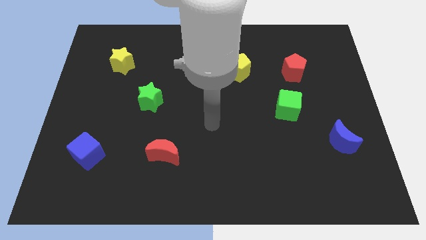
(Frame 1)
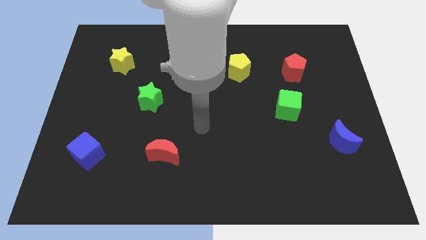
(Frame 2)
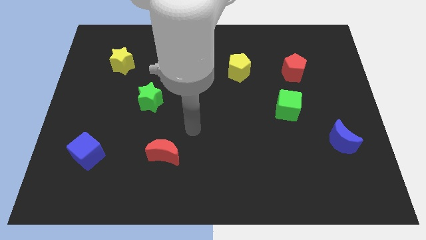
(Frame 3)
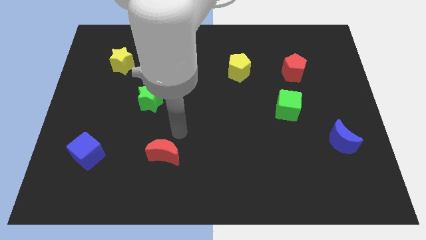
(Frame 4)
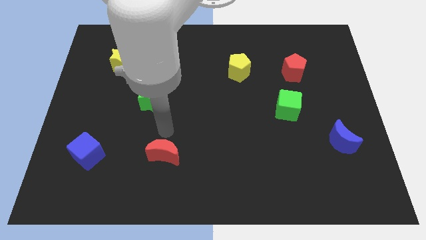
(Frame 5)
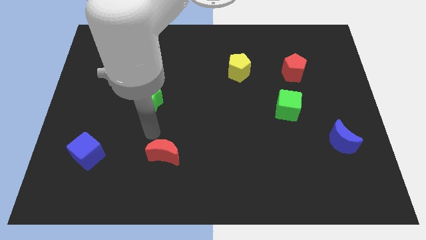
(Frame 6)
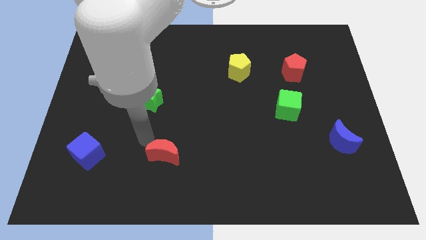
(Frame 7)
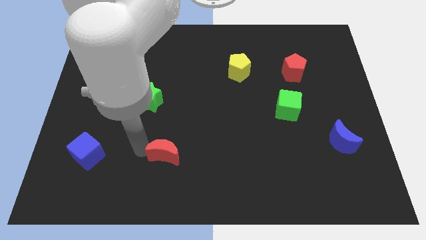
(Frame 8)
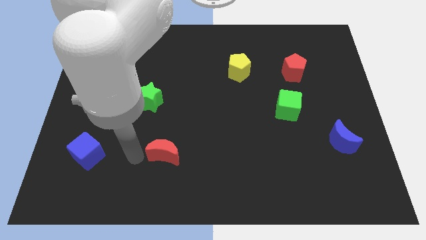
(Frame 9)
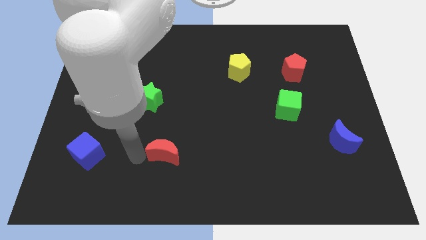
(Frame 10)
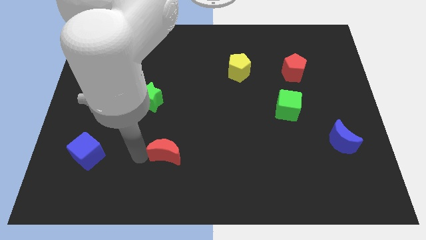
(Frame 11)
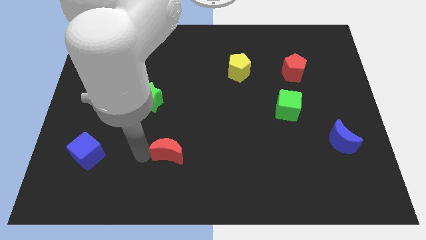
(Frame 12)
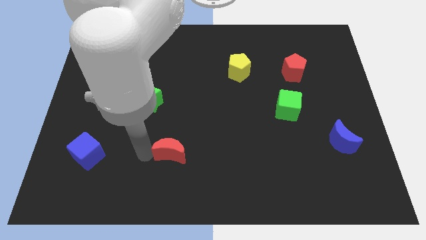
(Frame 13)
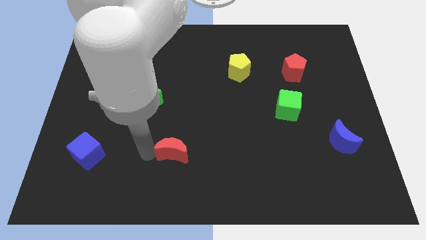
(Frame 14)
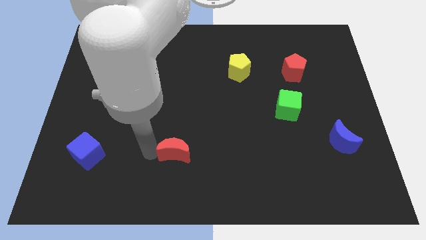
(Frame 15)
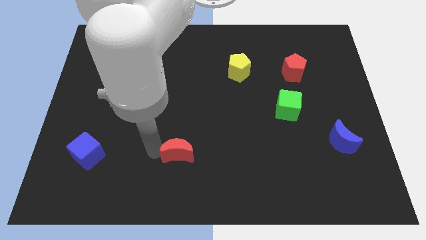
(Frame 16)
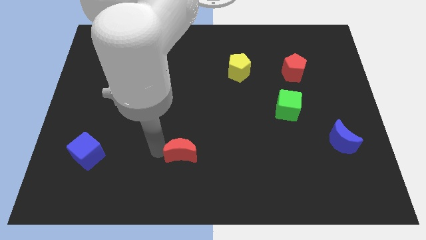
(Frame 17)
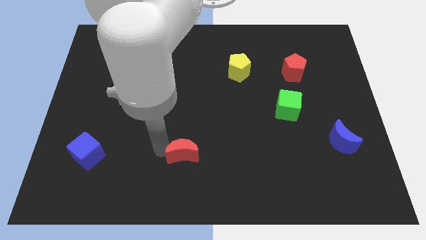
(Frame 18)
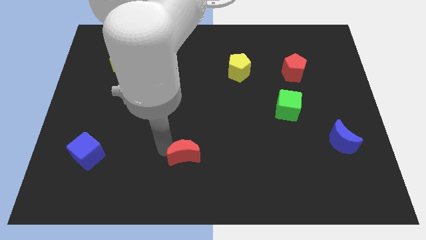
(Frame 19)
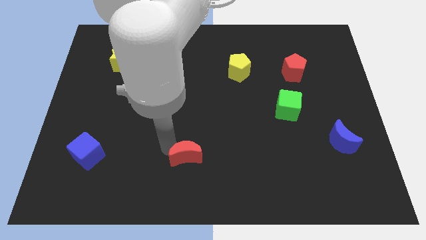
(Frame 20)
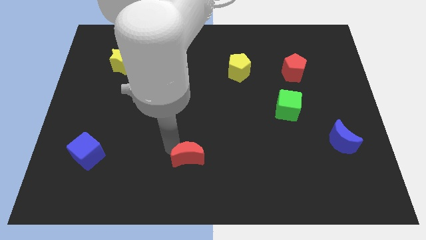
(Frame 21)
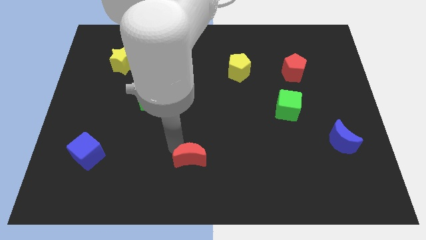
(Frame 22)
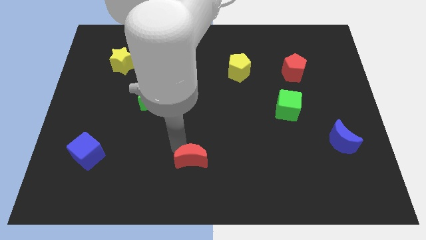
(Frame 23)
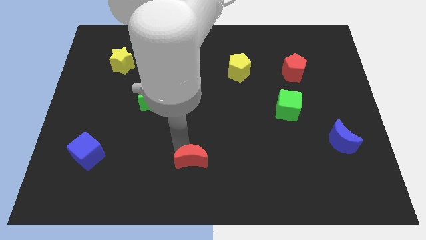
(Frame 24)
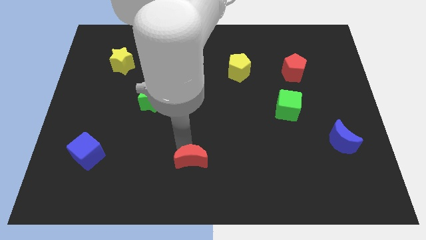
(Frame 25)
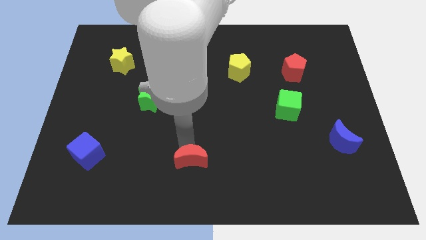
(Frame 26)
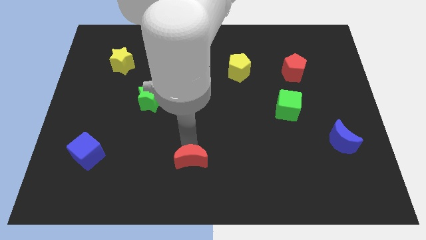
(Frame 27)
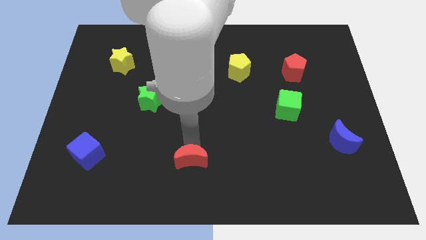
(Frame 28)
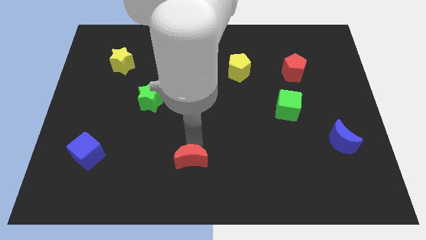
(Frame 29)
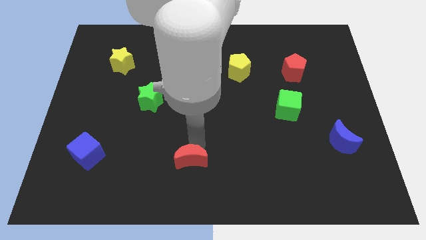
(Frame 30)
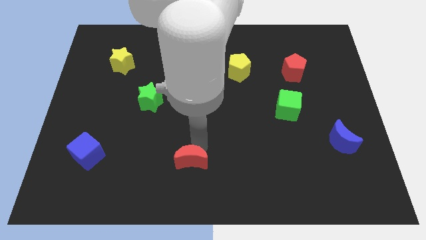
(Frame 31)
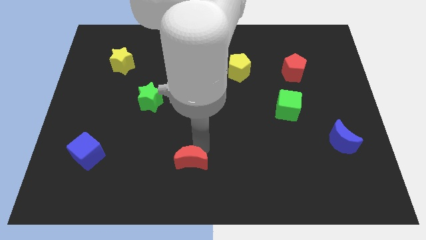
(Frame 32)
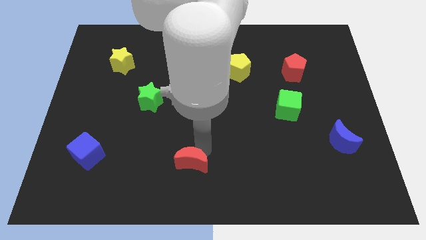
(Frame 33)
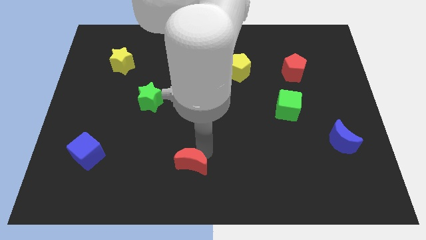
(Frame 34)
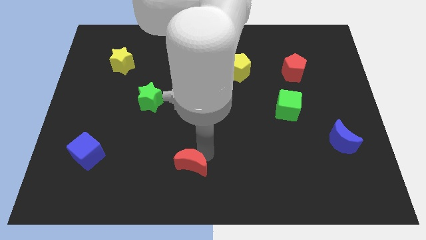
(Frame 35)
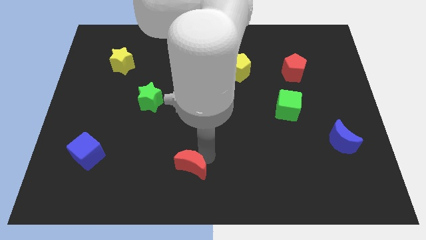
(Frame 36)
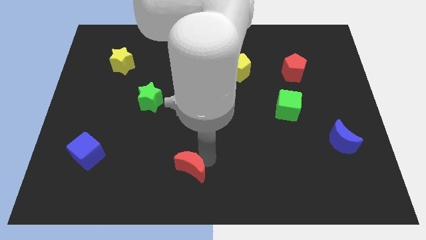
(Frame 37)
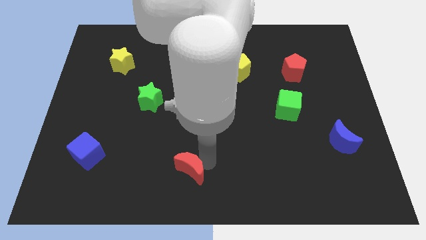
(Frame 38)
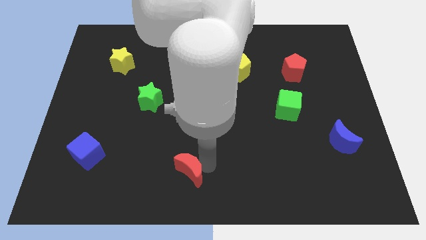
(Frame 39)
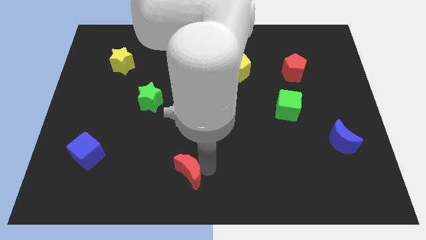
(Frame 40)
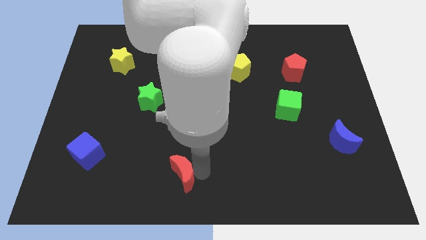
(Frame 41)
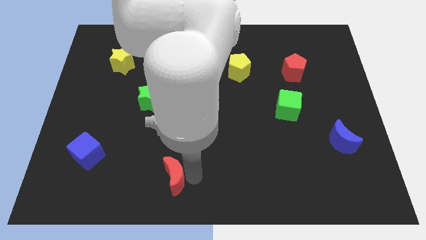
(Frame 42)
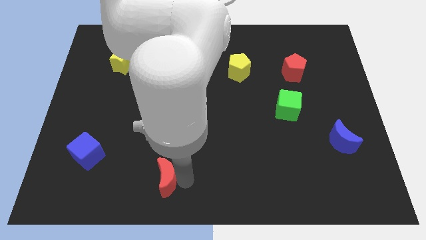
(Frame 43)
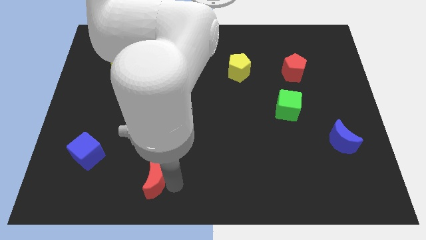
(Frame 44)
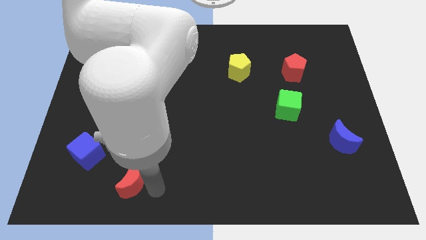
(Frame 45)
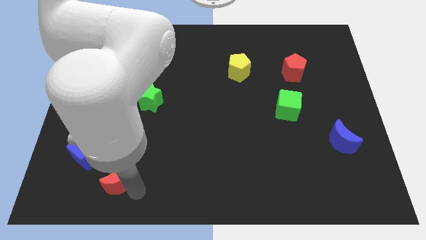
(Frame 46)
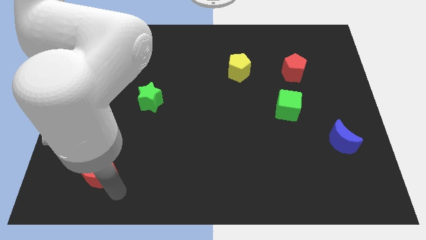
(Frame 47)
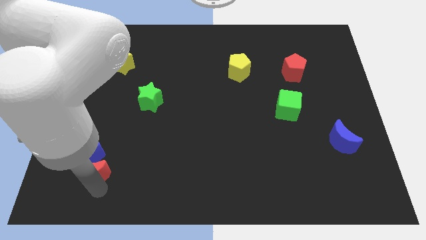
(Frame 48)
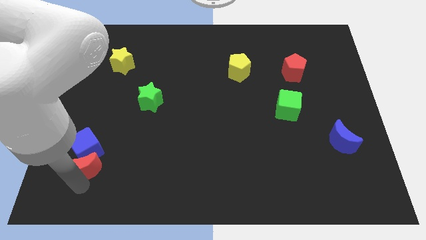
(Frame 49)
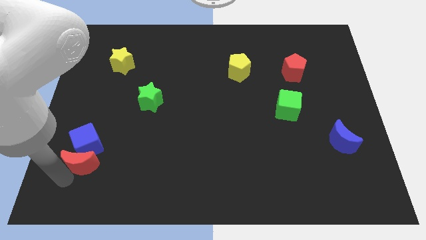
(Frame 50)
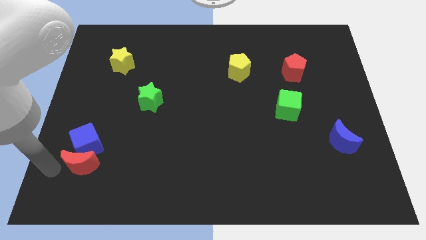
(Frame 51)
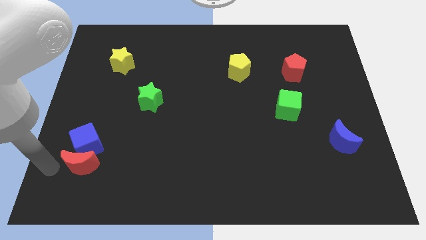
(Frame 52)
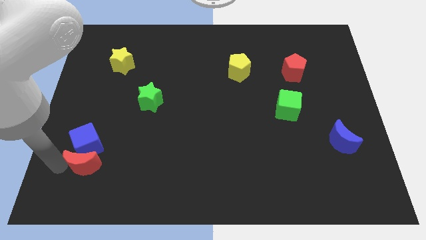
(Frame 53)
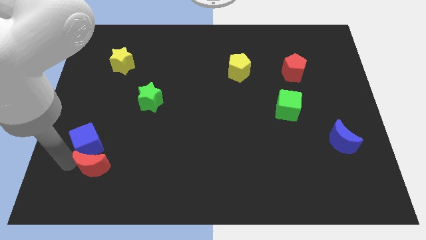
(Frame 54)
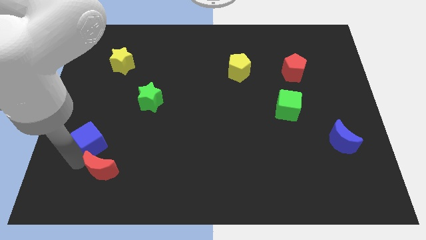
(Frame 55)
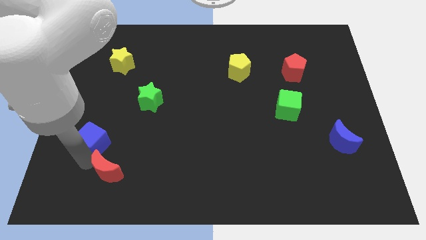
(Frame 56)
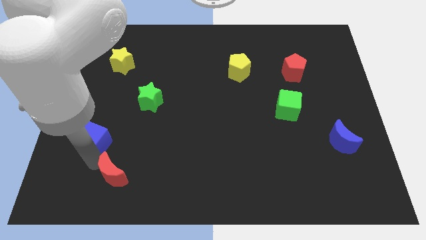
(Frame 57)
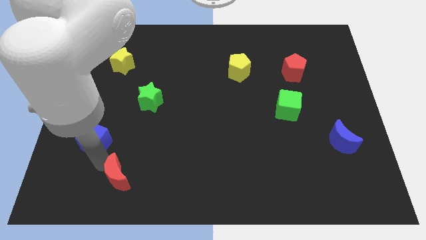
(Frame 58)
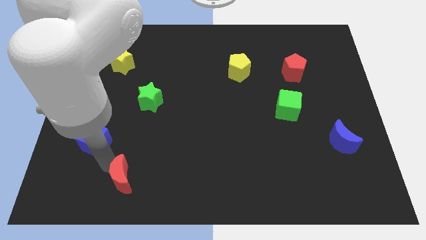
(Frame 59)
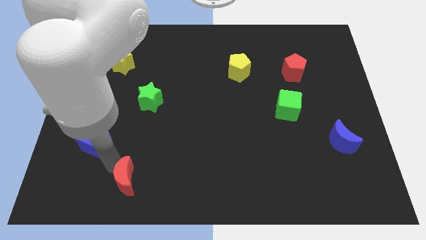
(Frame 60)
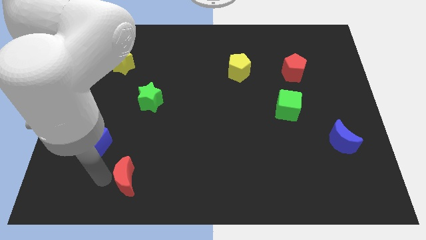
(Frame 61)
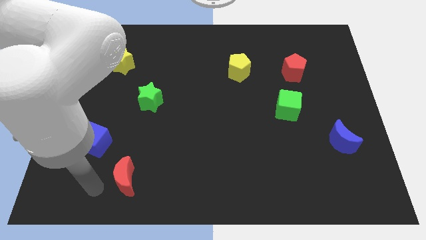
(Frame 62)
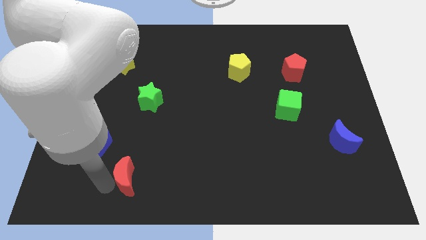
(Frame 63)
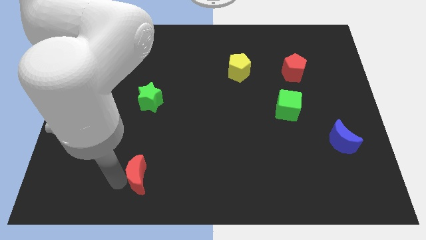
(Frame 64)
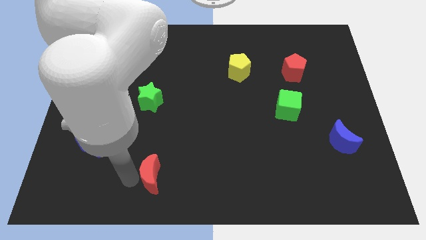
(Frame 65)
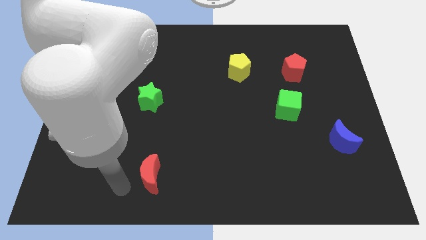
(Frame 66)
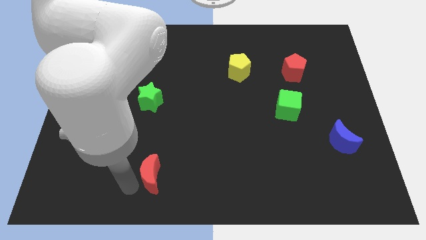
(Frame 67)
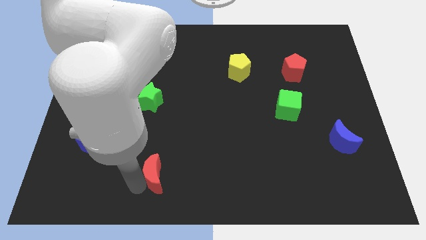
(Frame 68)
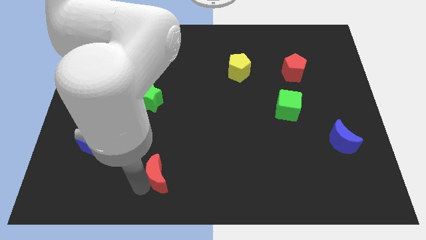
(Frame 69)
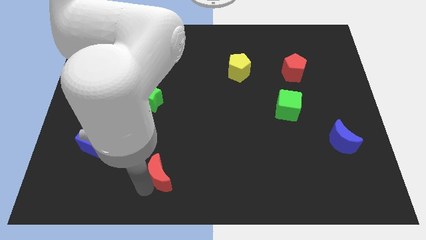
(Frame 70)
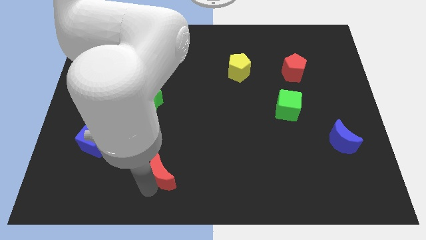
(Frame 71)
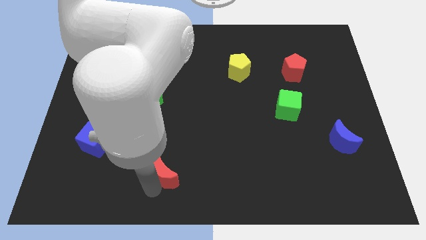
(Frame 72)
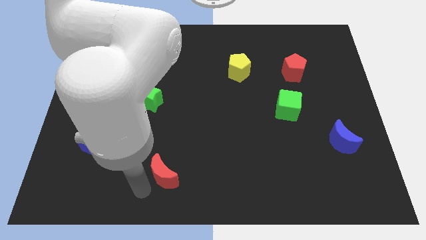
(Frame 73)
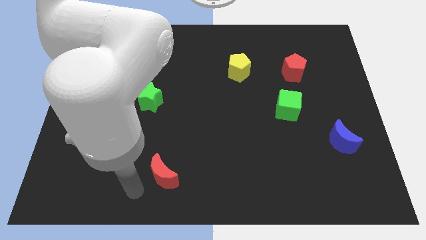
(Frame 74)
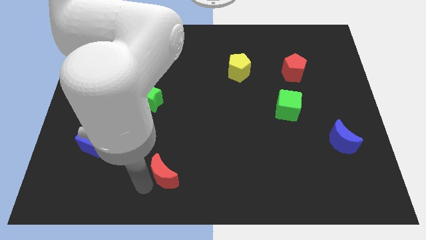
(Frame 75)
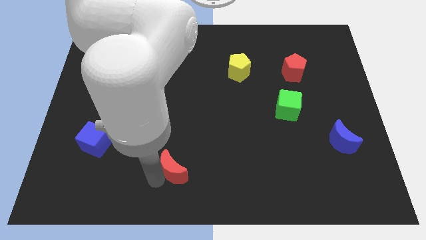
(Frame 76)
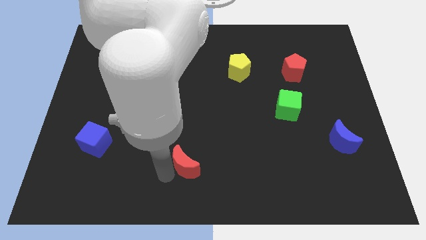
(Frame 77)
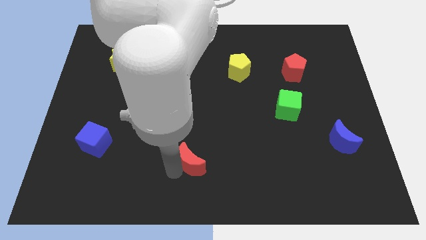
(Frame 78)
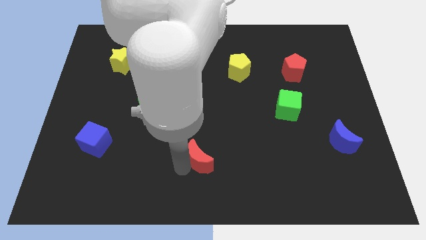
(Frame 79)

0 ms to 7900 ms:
slide the red moon to the right a bit

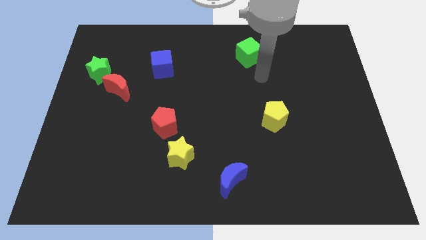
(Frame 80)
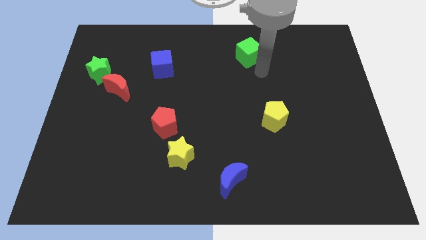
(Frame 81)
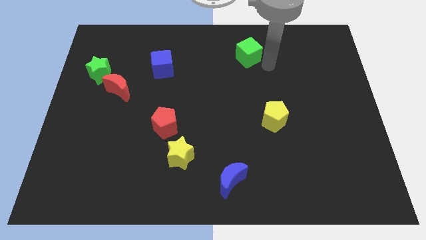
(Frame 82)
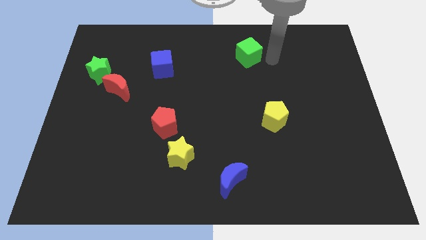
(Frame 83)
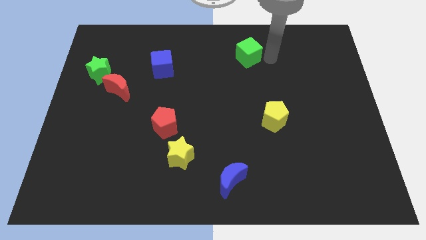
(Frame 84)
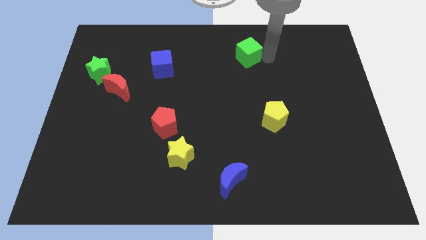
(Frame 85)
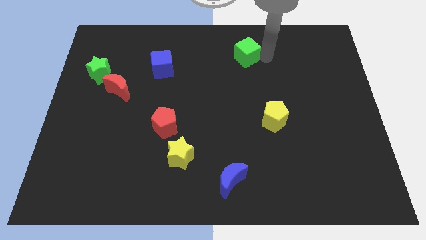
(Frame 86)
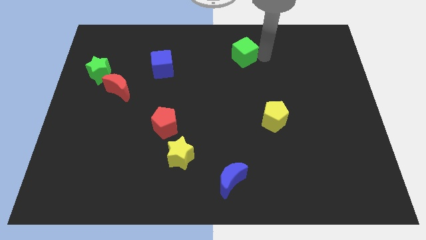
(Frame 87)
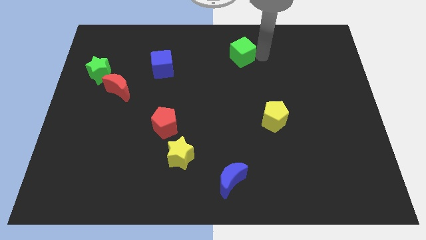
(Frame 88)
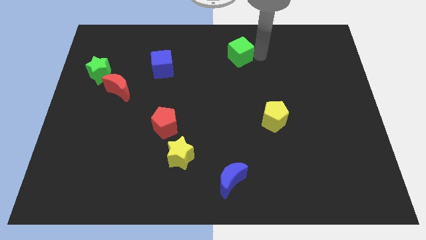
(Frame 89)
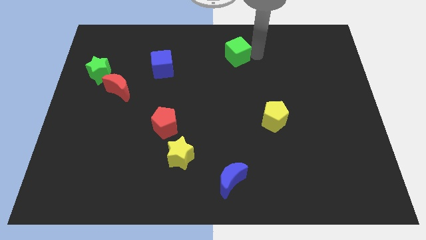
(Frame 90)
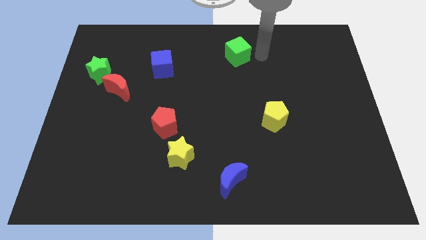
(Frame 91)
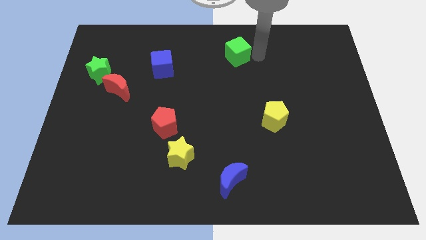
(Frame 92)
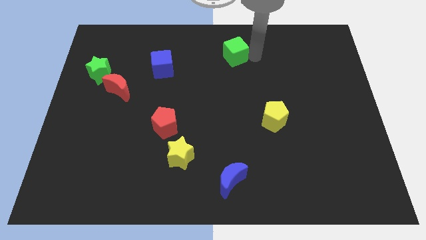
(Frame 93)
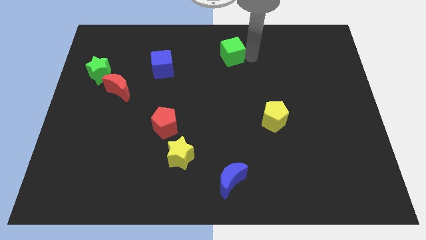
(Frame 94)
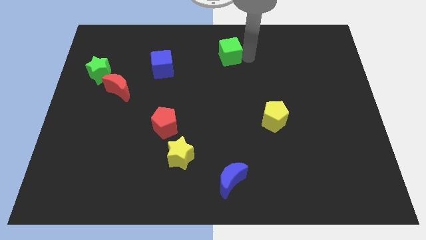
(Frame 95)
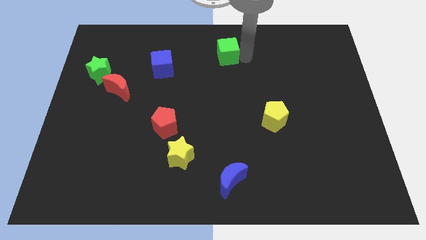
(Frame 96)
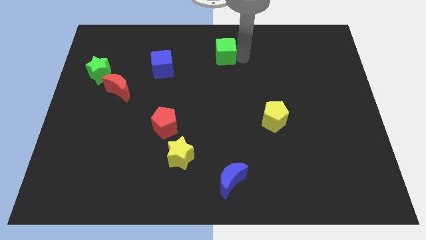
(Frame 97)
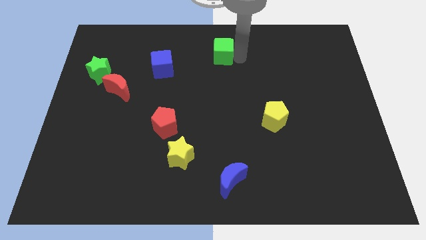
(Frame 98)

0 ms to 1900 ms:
push the green cube to the left somewhat
